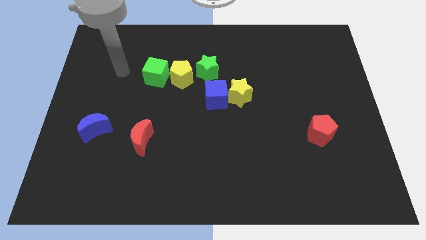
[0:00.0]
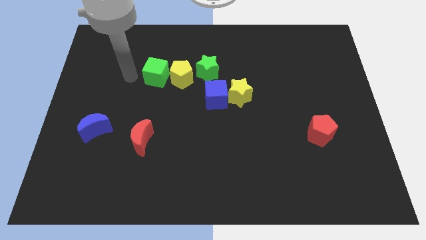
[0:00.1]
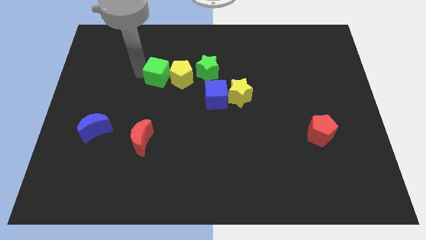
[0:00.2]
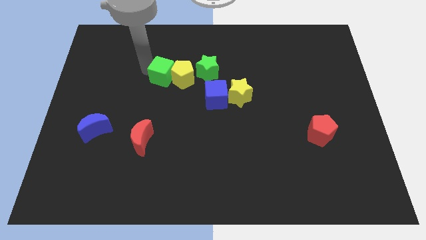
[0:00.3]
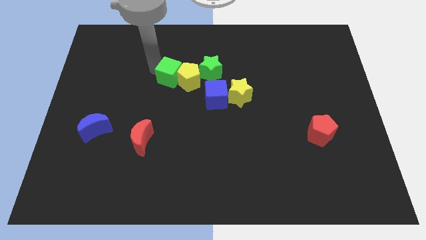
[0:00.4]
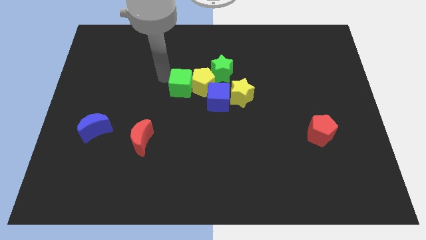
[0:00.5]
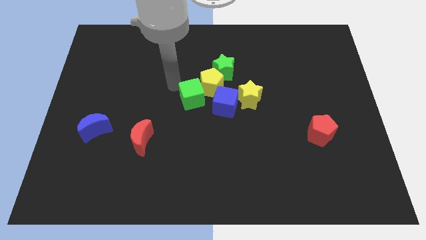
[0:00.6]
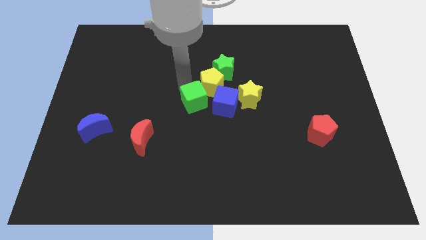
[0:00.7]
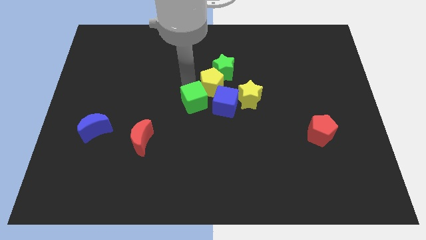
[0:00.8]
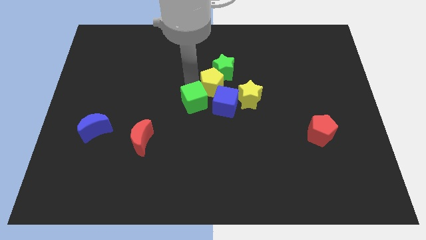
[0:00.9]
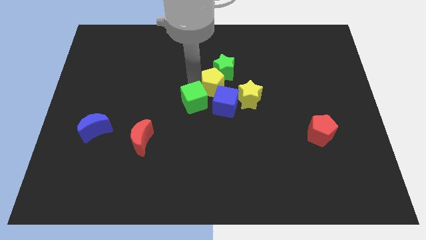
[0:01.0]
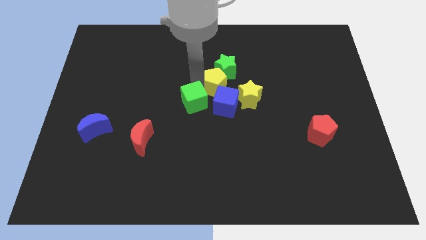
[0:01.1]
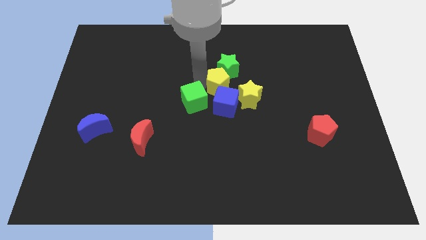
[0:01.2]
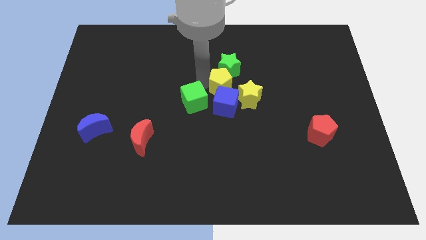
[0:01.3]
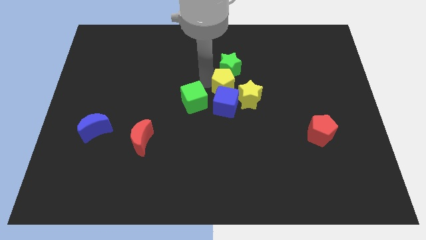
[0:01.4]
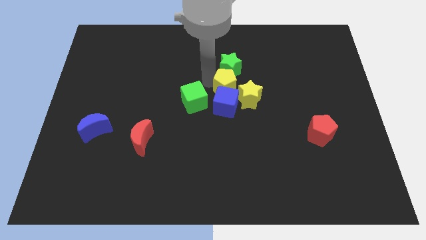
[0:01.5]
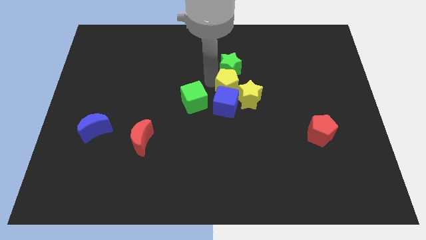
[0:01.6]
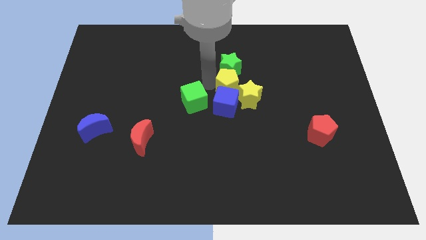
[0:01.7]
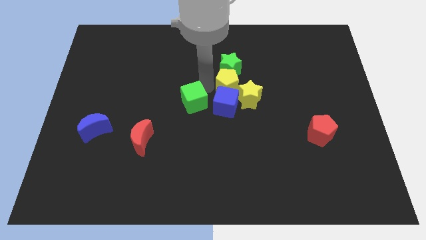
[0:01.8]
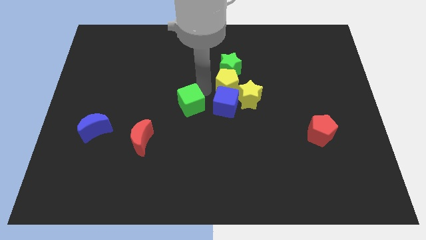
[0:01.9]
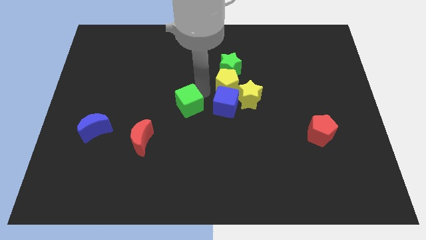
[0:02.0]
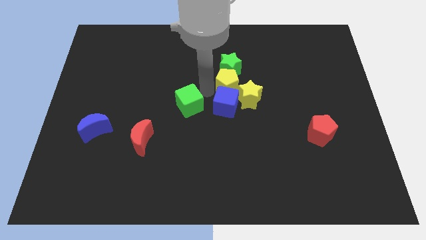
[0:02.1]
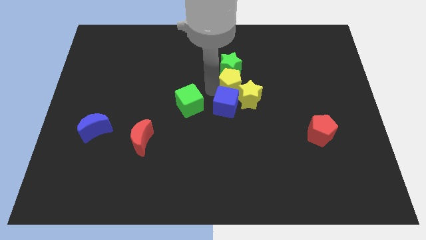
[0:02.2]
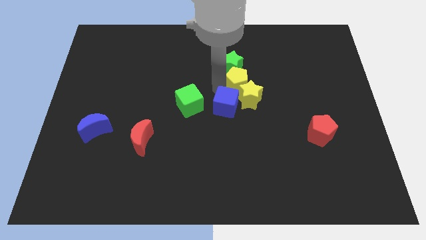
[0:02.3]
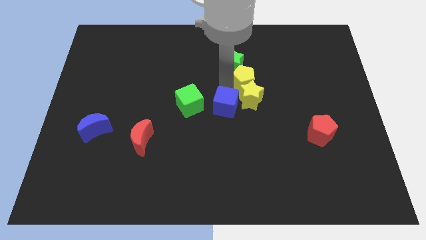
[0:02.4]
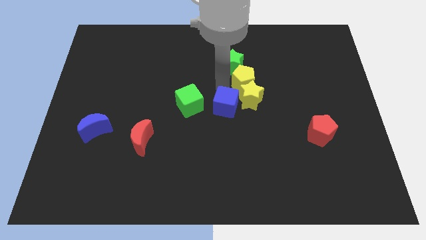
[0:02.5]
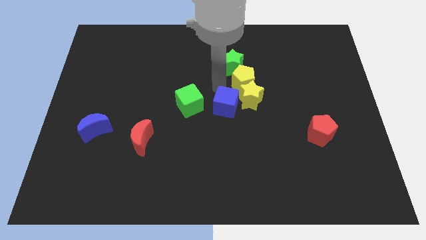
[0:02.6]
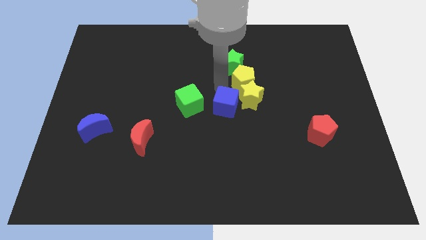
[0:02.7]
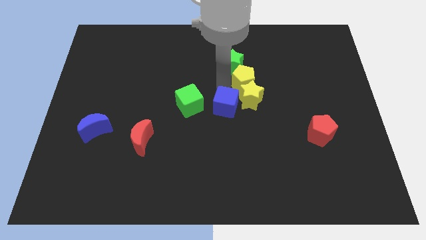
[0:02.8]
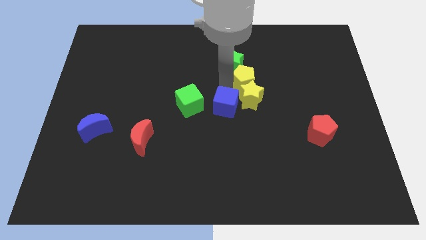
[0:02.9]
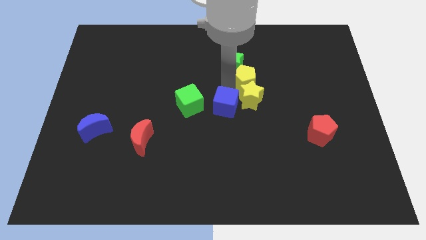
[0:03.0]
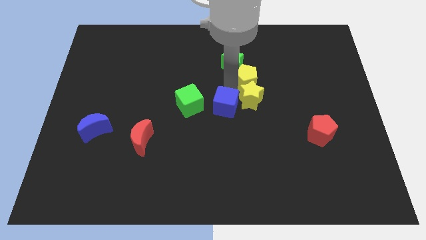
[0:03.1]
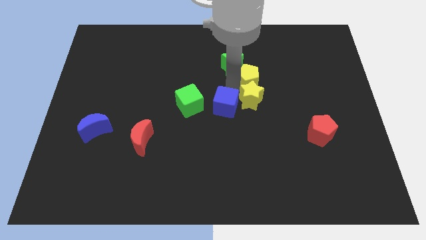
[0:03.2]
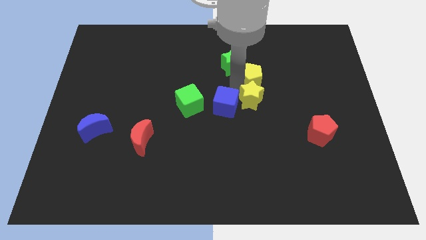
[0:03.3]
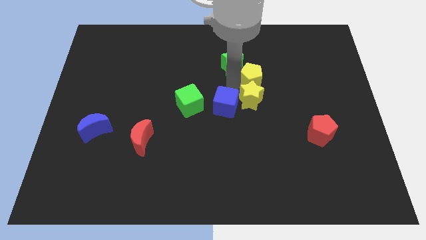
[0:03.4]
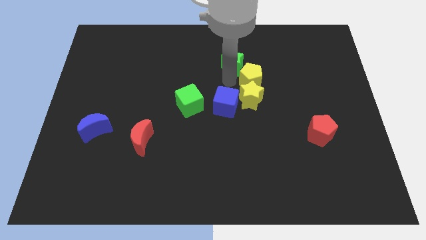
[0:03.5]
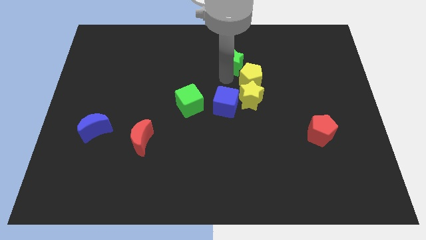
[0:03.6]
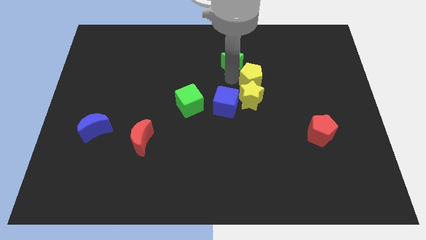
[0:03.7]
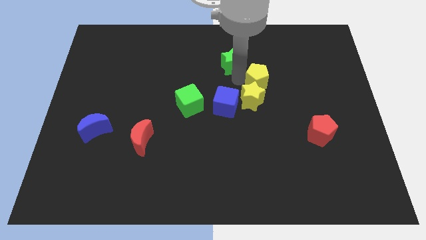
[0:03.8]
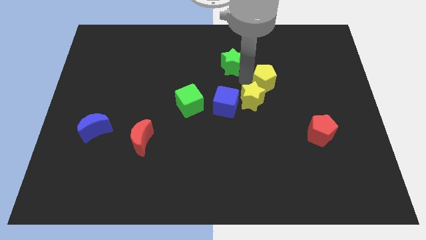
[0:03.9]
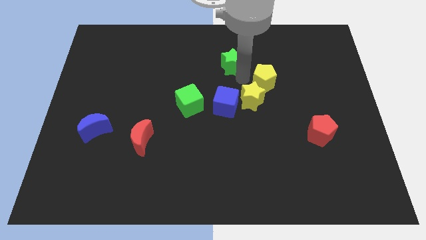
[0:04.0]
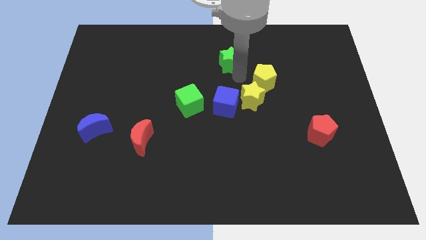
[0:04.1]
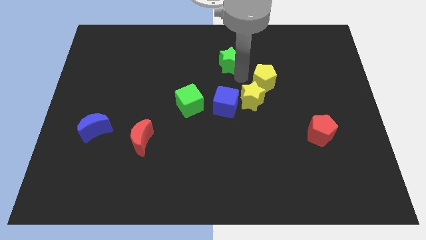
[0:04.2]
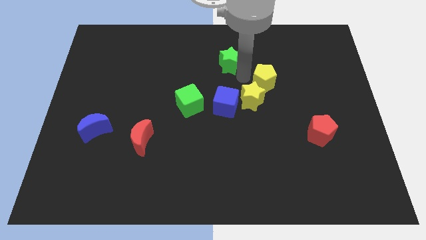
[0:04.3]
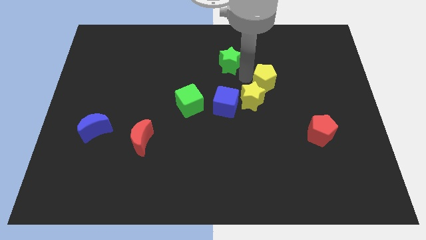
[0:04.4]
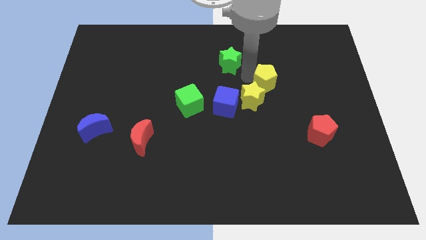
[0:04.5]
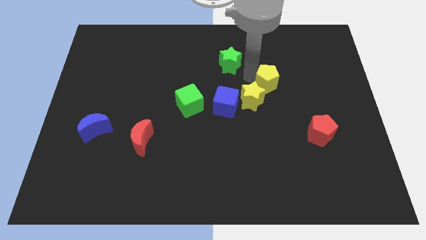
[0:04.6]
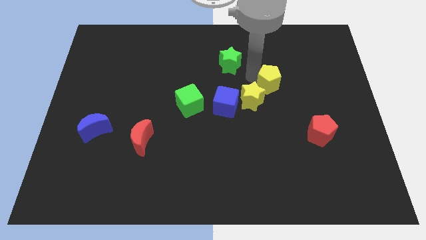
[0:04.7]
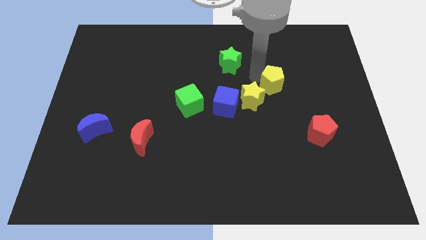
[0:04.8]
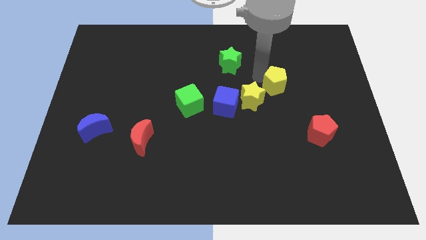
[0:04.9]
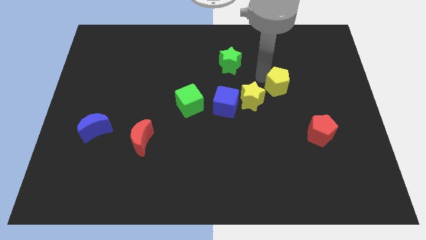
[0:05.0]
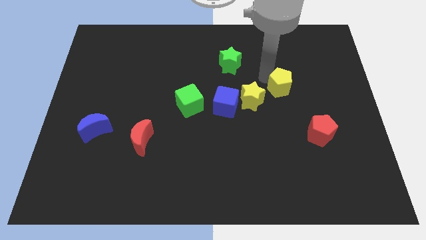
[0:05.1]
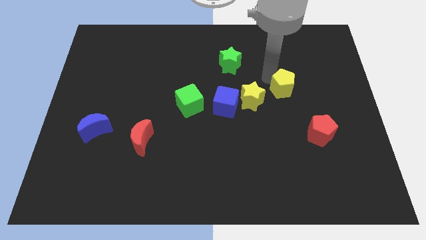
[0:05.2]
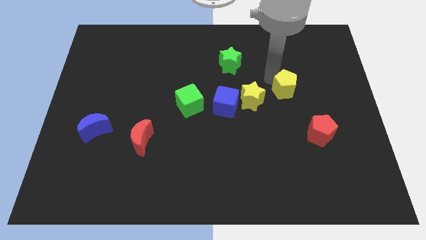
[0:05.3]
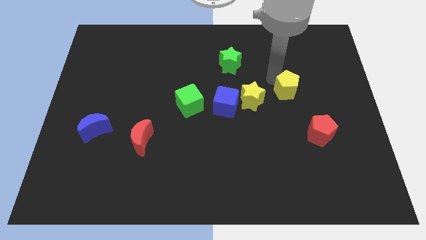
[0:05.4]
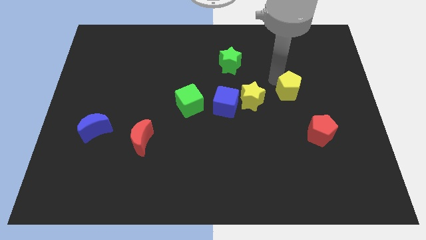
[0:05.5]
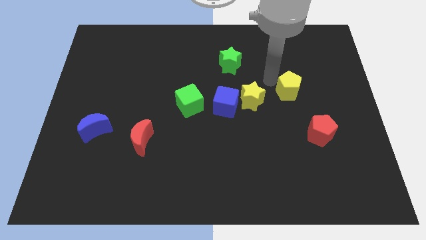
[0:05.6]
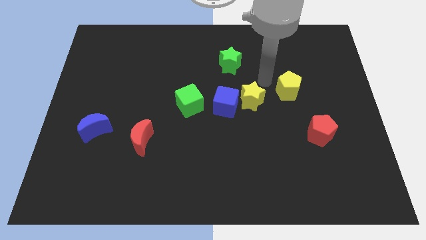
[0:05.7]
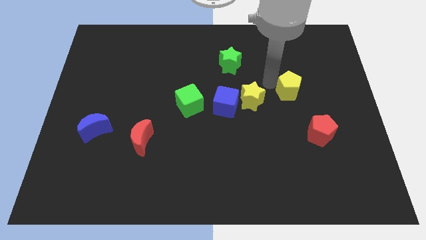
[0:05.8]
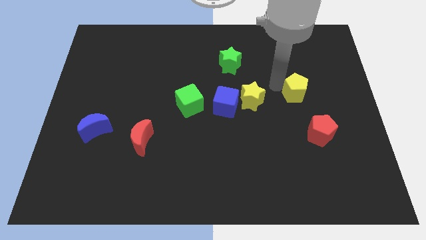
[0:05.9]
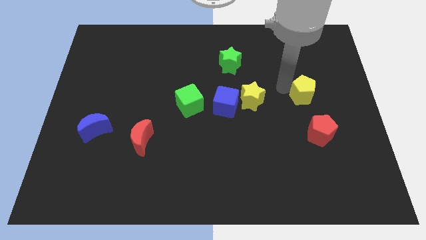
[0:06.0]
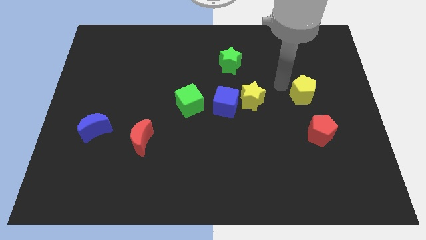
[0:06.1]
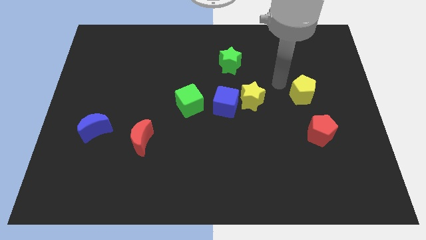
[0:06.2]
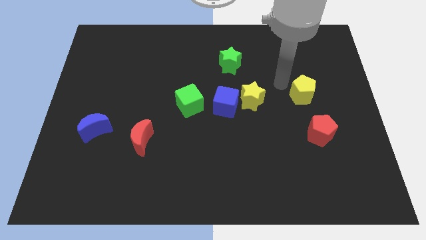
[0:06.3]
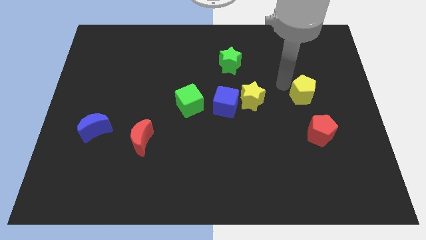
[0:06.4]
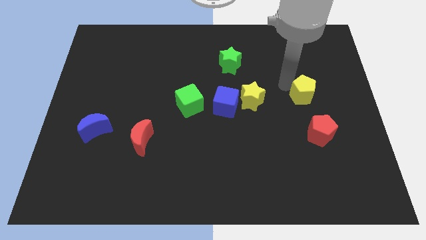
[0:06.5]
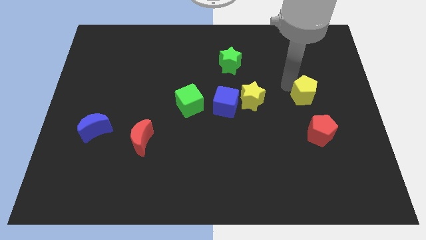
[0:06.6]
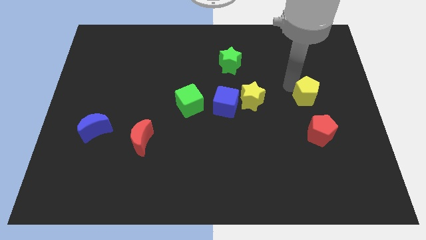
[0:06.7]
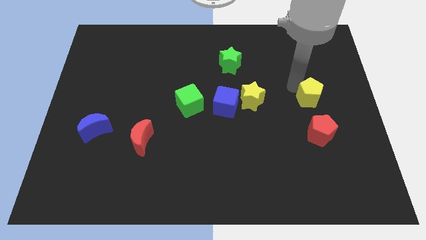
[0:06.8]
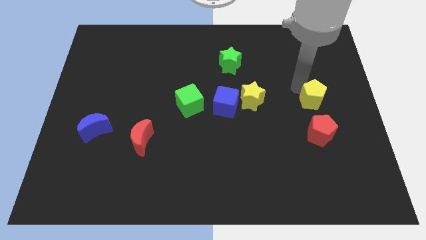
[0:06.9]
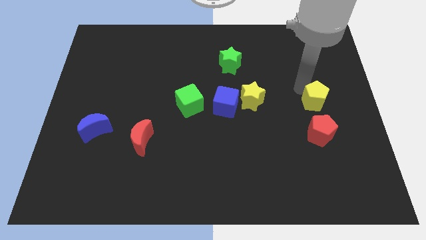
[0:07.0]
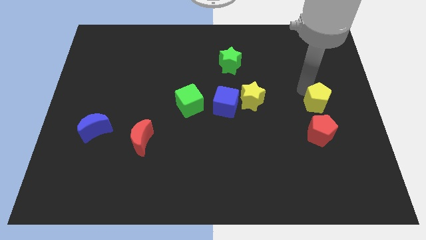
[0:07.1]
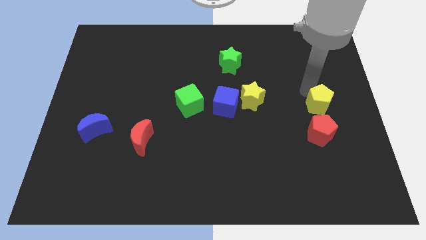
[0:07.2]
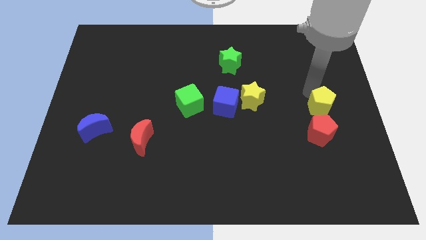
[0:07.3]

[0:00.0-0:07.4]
move the yellow pentagon to the top right side of the red pentagon
